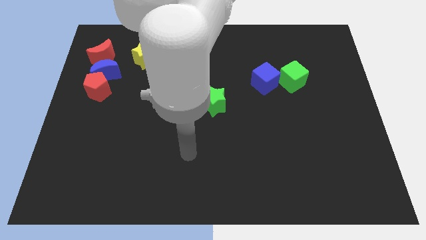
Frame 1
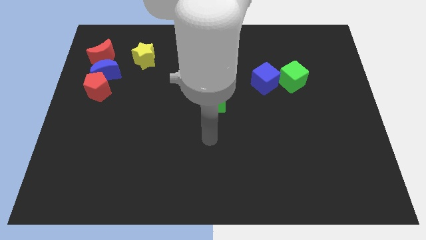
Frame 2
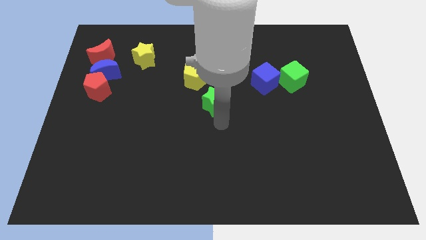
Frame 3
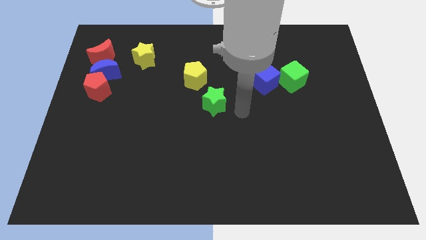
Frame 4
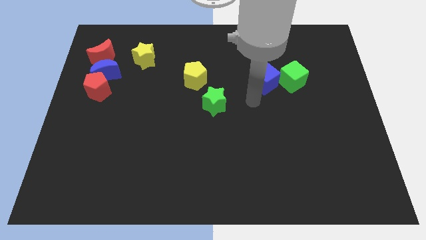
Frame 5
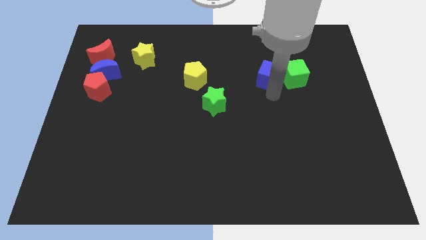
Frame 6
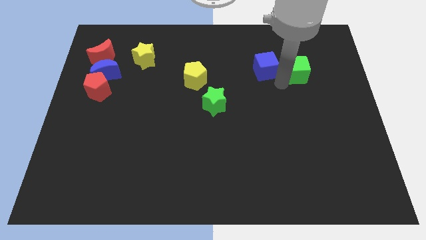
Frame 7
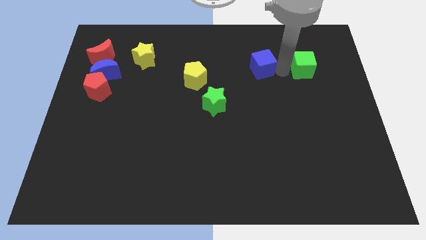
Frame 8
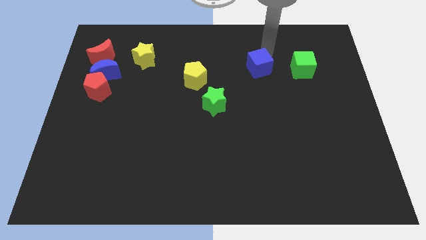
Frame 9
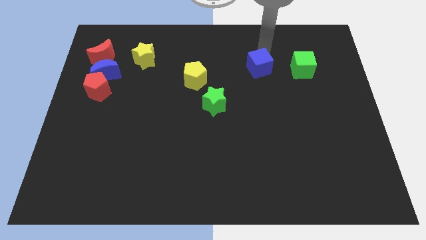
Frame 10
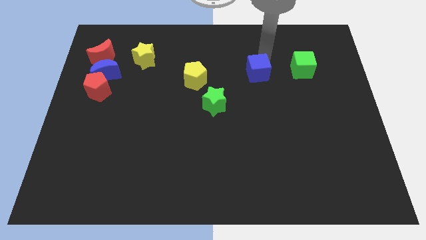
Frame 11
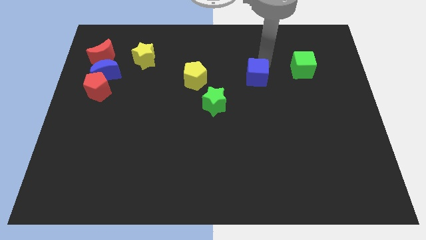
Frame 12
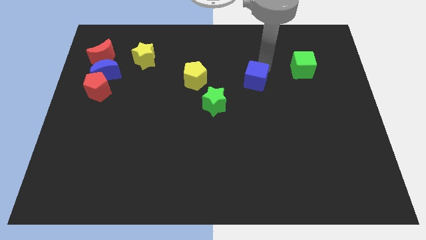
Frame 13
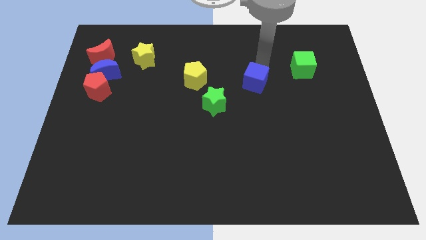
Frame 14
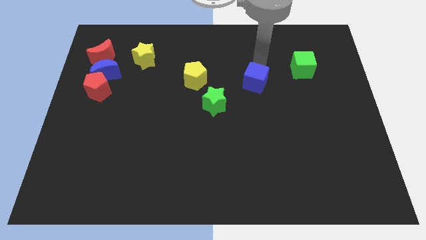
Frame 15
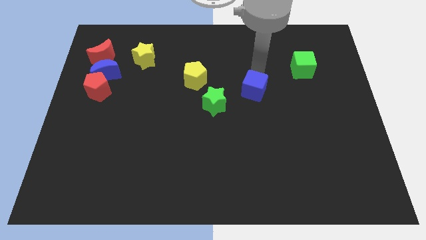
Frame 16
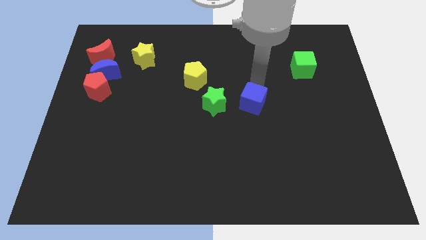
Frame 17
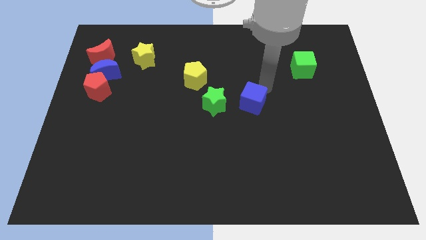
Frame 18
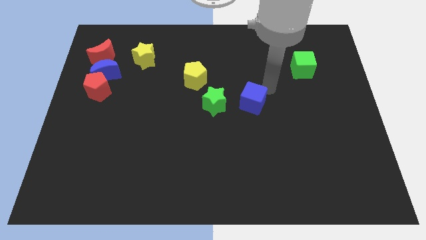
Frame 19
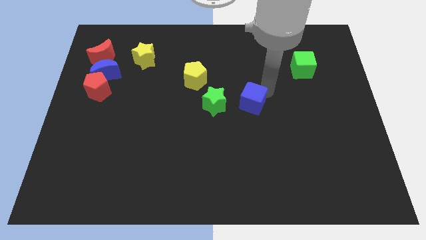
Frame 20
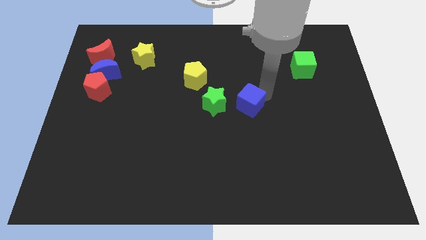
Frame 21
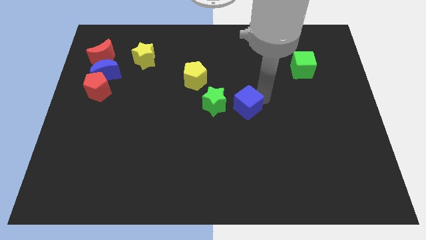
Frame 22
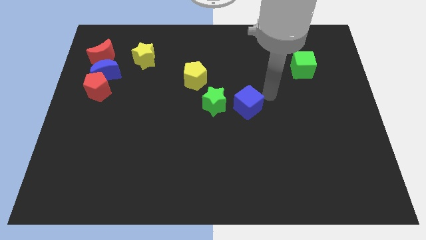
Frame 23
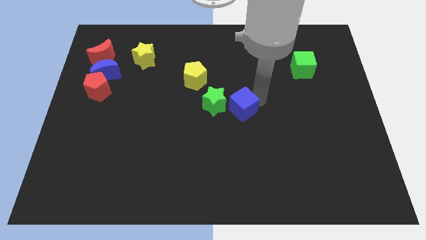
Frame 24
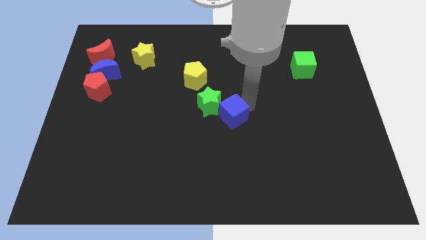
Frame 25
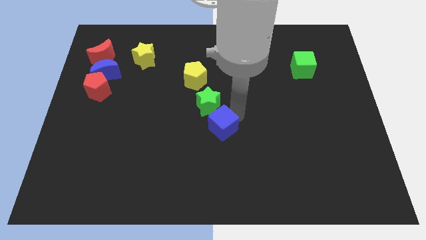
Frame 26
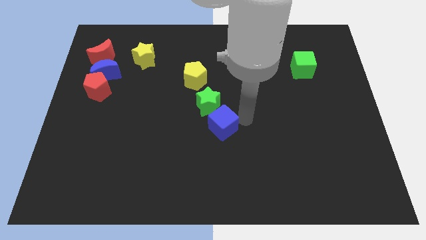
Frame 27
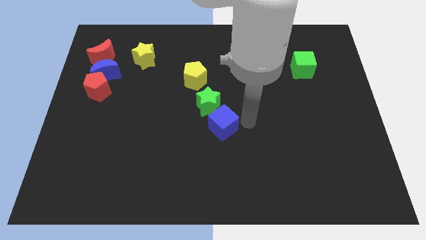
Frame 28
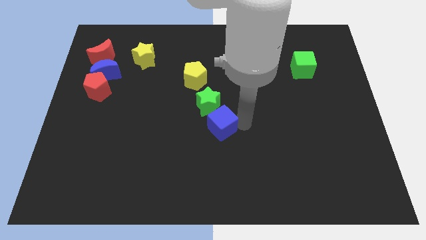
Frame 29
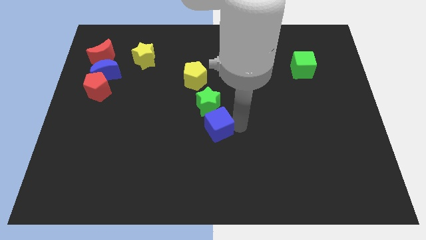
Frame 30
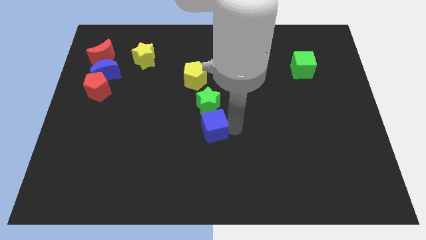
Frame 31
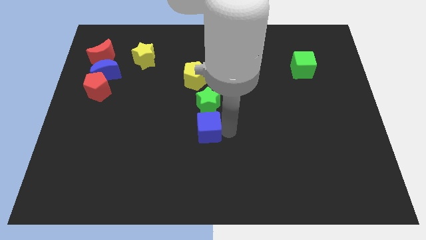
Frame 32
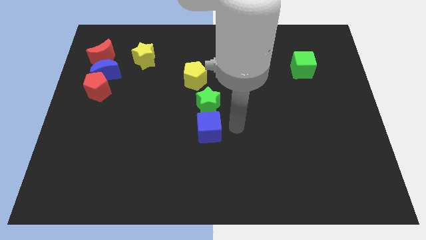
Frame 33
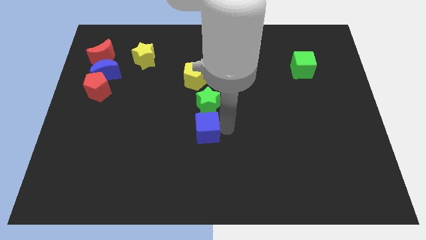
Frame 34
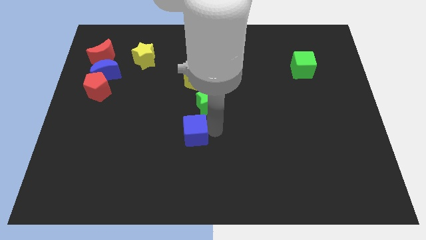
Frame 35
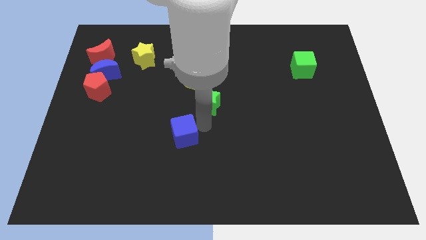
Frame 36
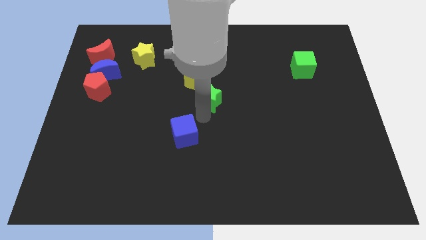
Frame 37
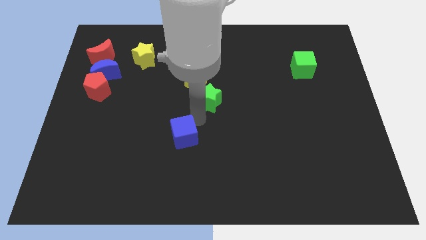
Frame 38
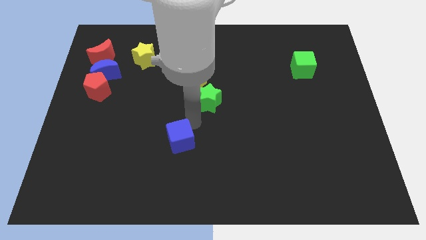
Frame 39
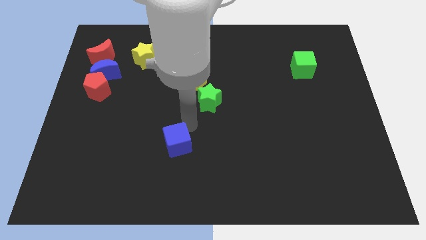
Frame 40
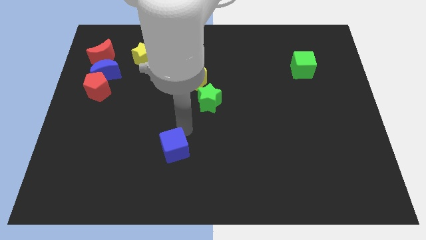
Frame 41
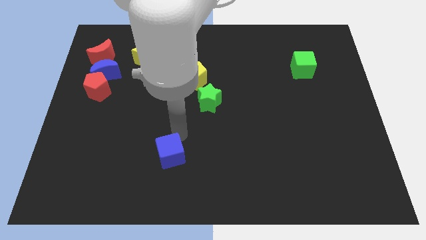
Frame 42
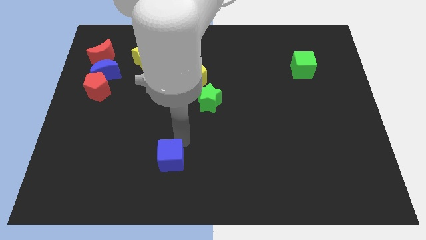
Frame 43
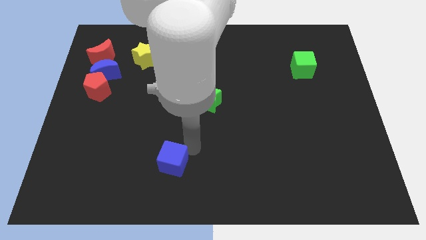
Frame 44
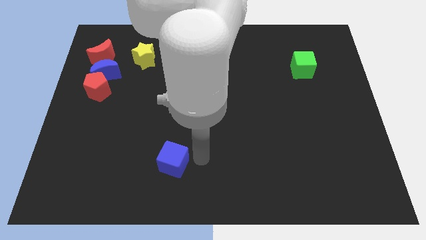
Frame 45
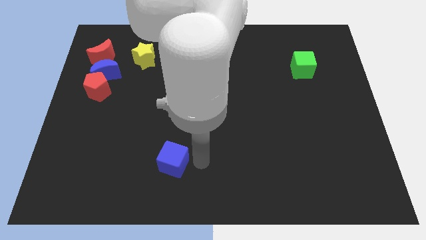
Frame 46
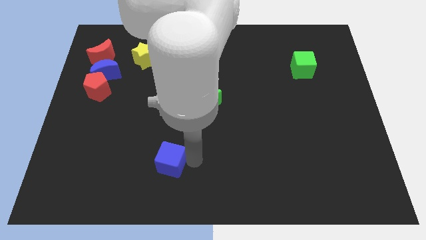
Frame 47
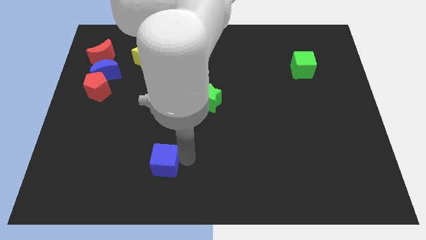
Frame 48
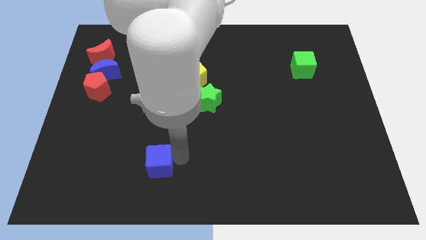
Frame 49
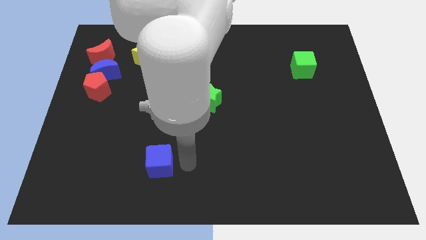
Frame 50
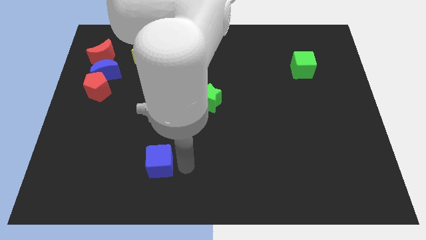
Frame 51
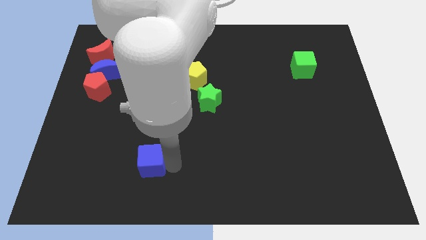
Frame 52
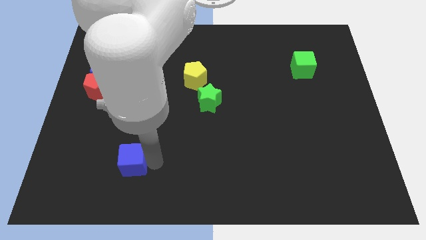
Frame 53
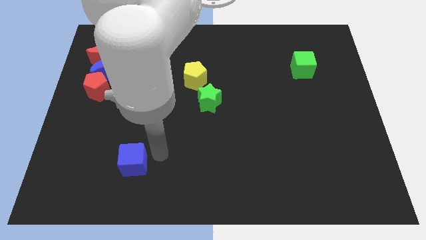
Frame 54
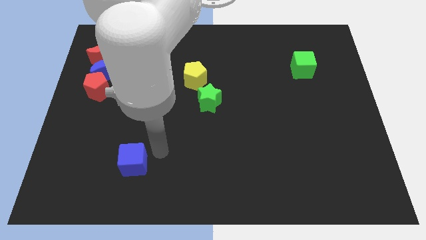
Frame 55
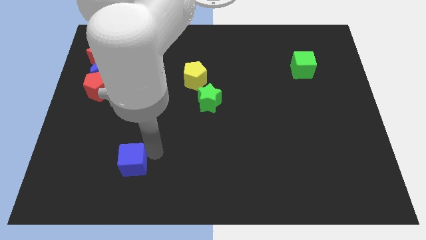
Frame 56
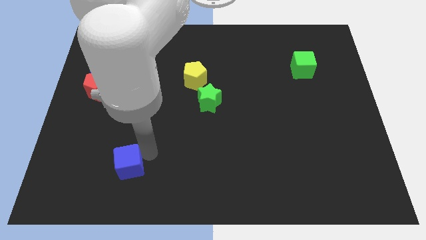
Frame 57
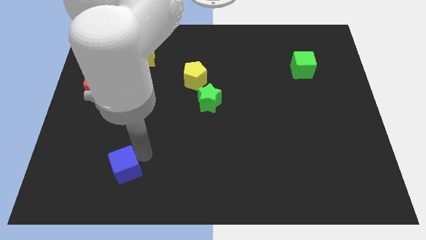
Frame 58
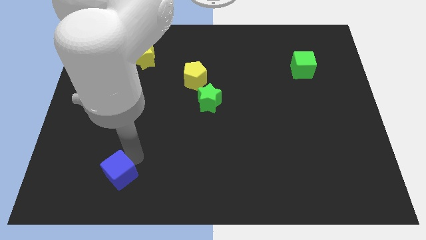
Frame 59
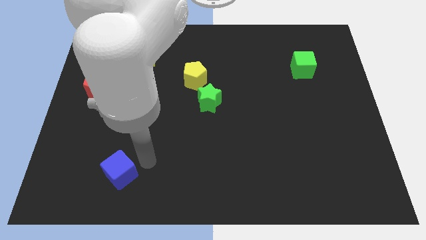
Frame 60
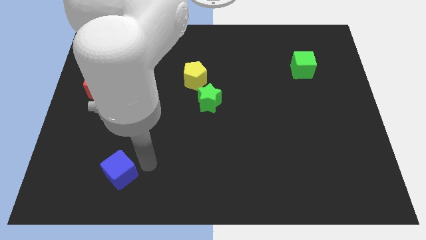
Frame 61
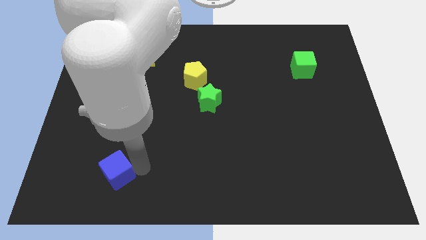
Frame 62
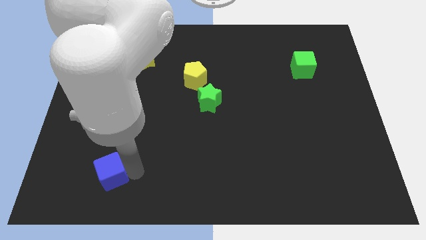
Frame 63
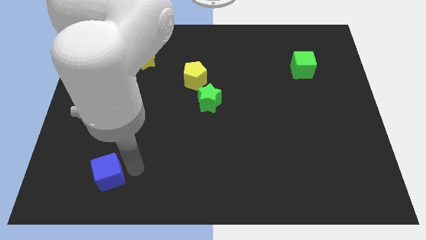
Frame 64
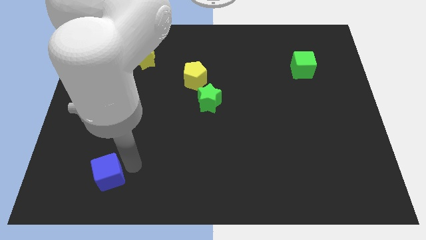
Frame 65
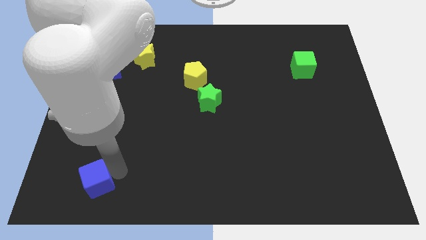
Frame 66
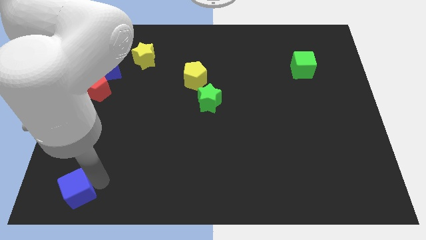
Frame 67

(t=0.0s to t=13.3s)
push the blue cube to the bottom left
